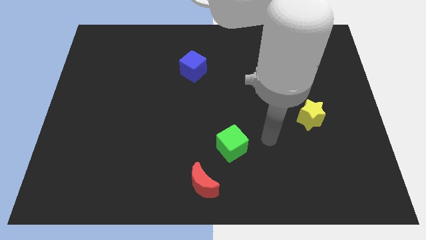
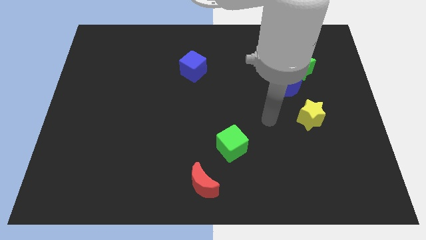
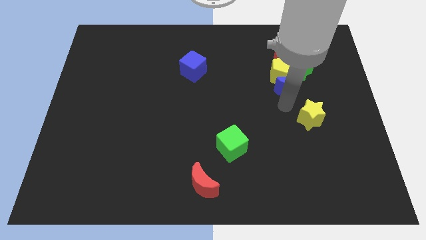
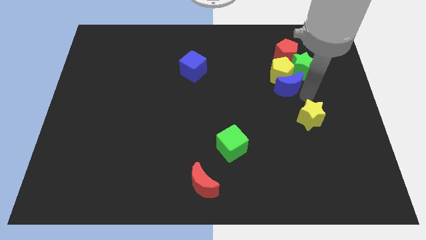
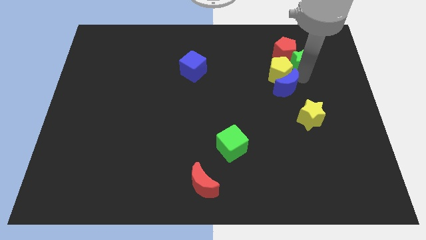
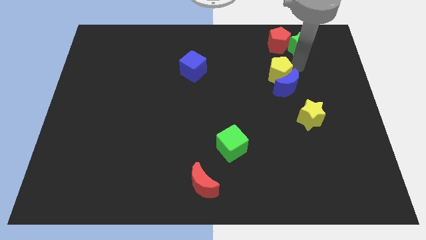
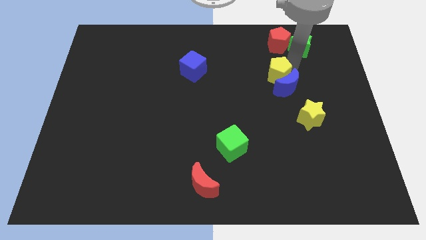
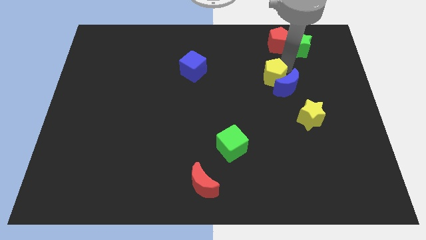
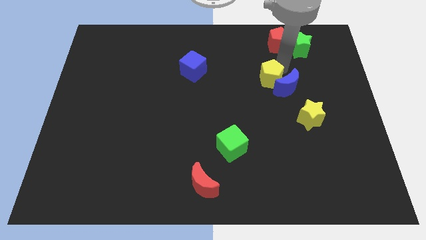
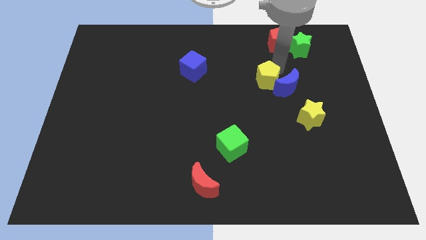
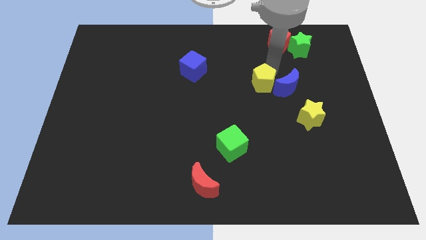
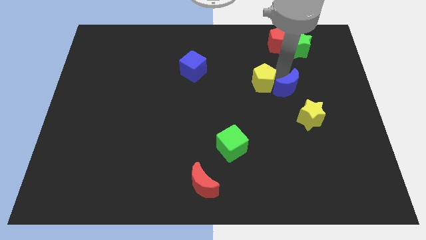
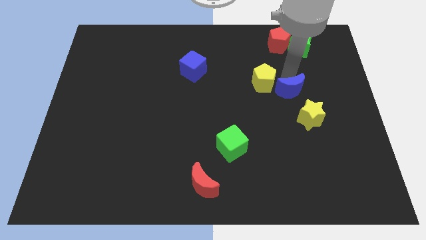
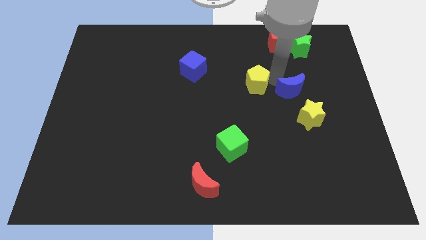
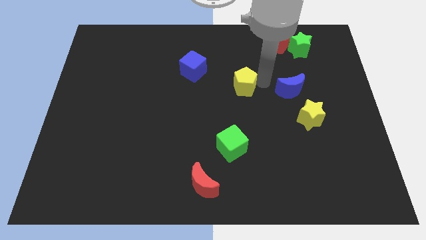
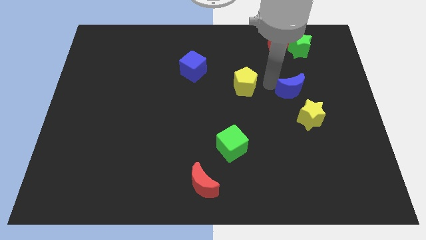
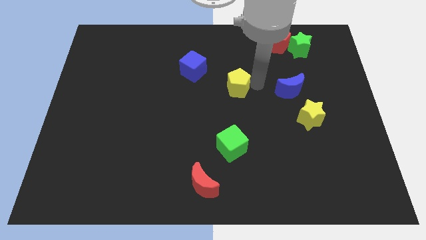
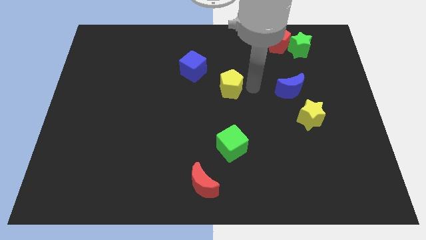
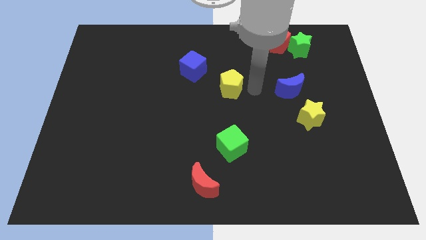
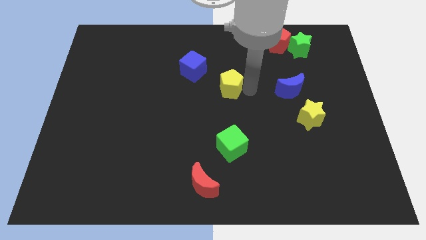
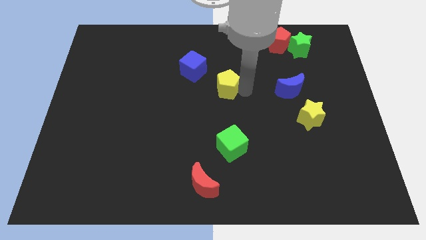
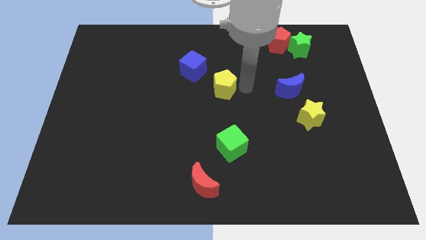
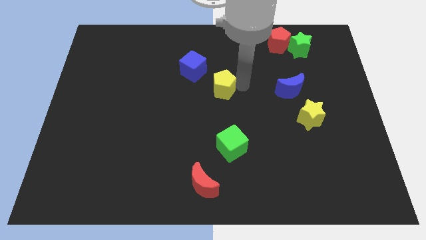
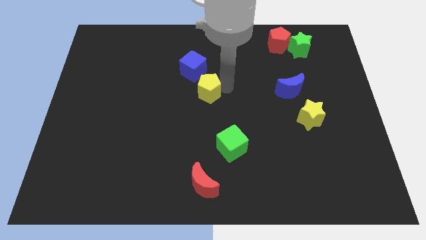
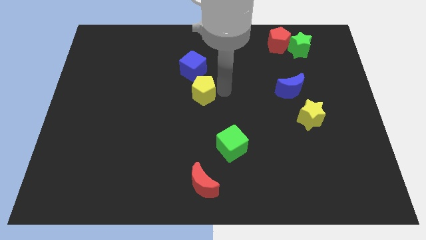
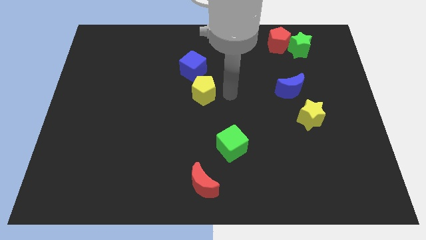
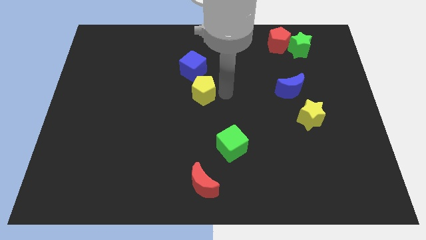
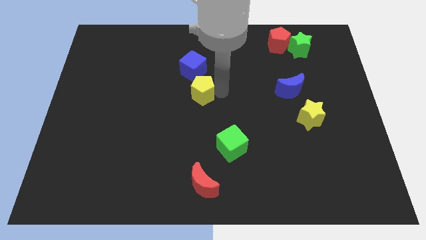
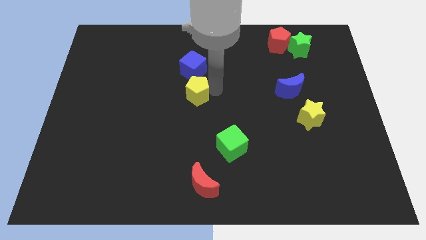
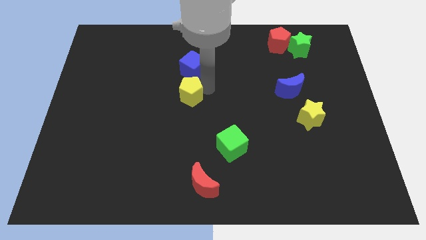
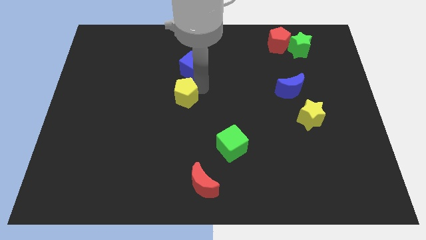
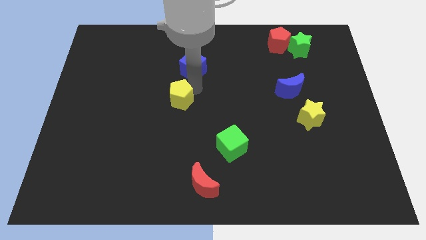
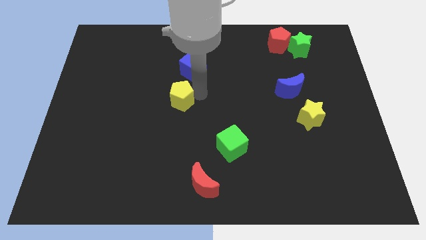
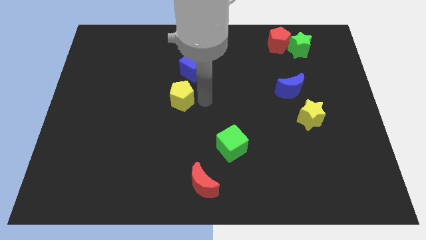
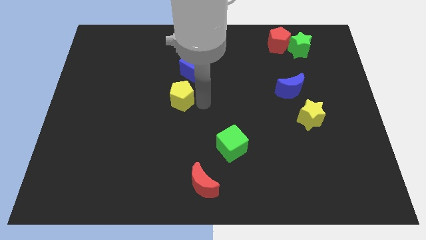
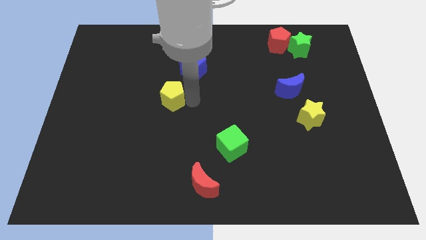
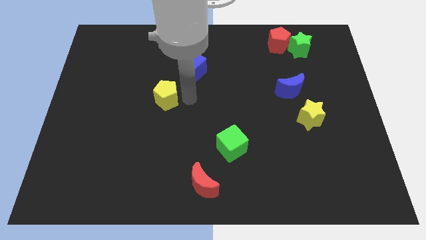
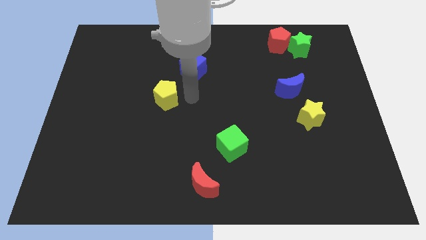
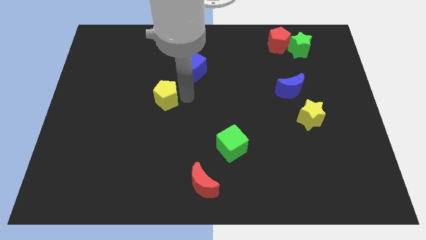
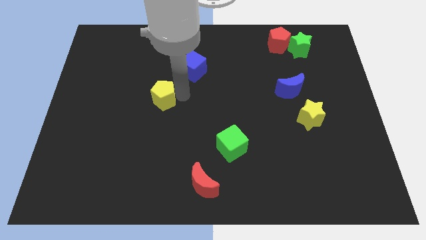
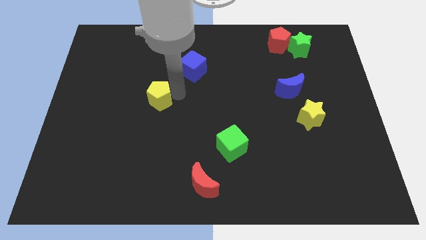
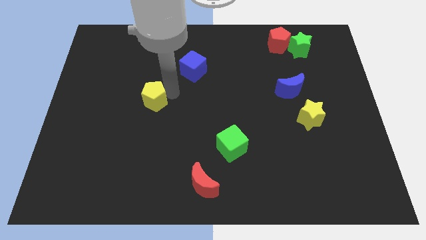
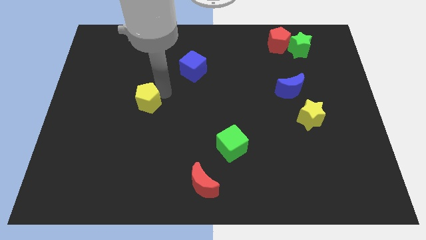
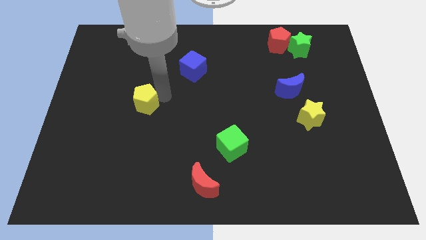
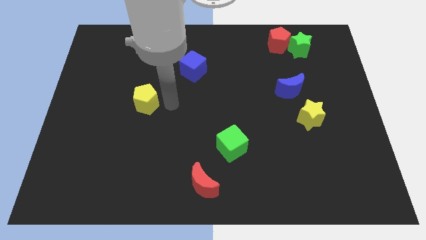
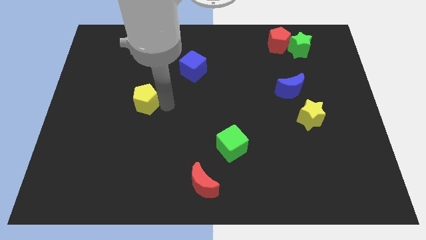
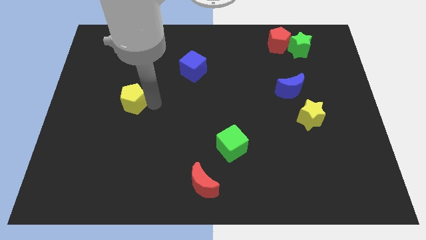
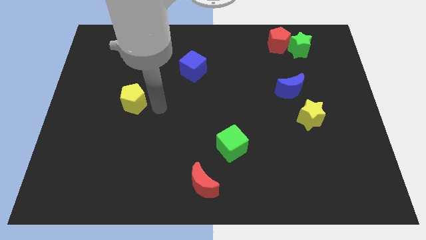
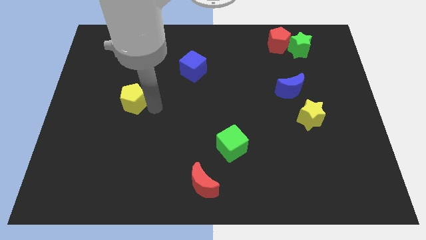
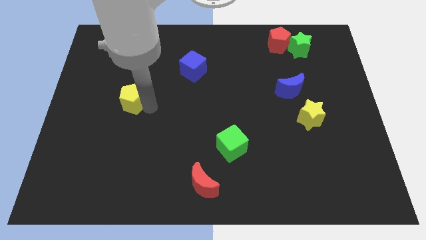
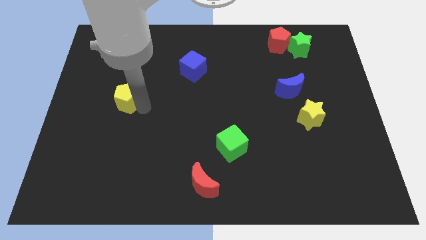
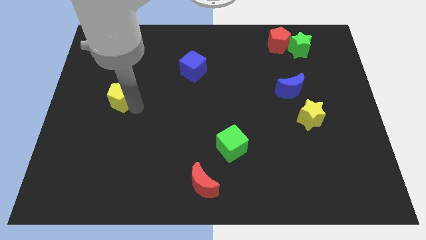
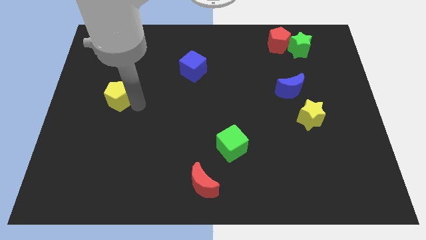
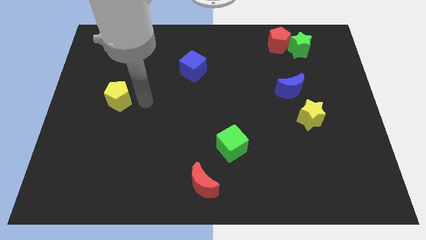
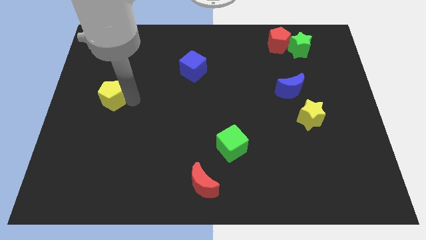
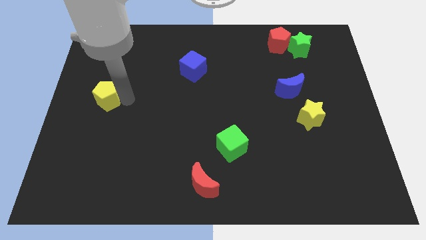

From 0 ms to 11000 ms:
put the yellow pentagon to the left side
